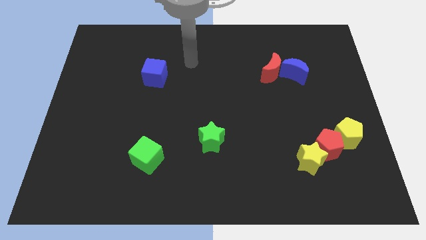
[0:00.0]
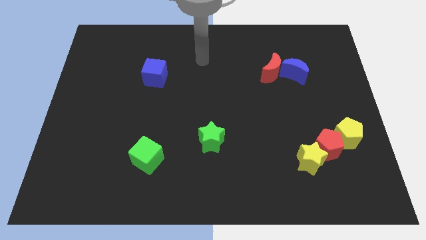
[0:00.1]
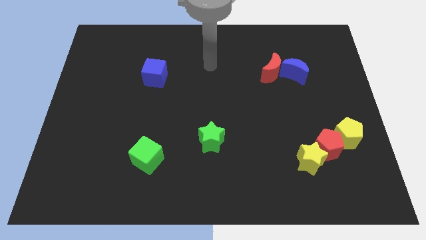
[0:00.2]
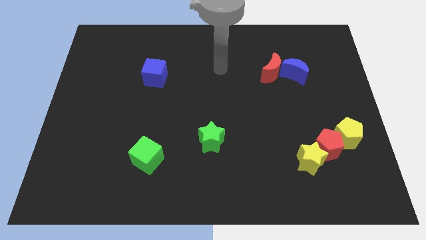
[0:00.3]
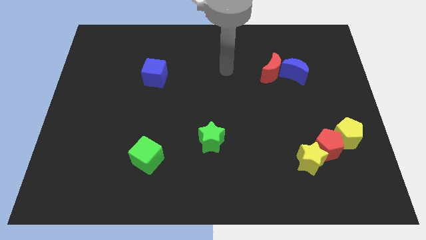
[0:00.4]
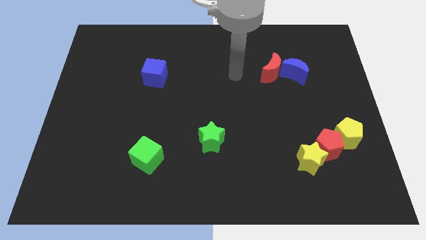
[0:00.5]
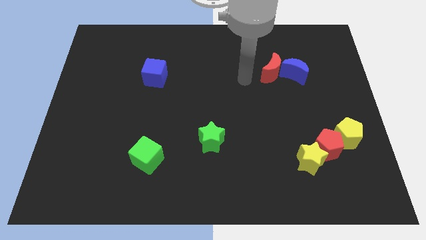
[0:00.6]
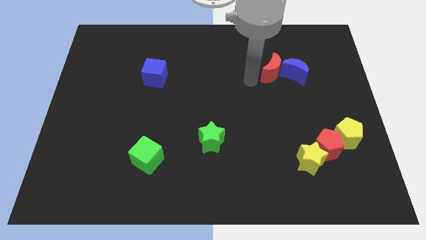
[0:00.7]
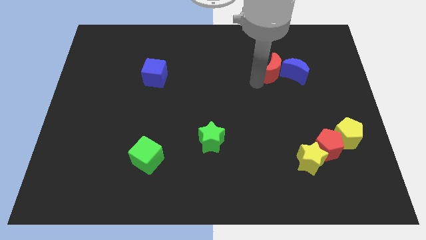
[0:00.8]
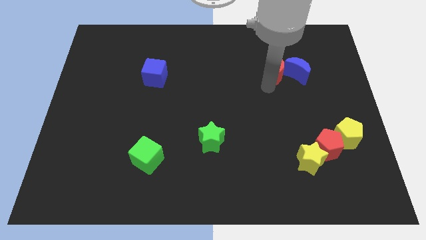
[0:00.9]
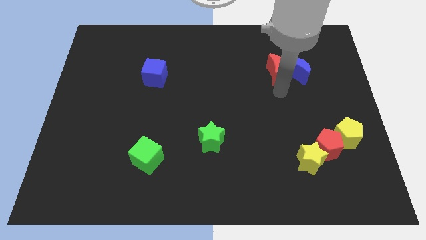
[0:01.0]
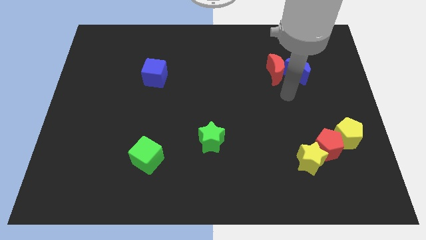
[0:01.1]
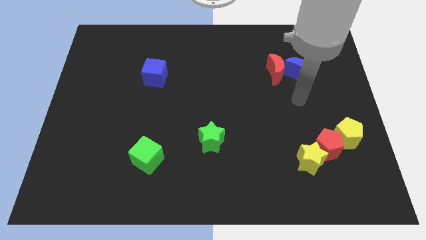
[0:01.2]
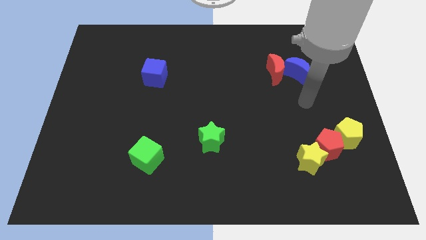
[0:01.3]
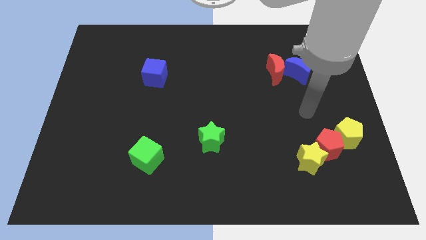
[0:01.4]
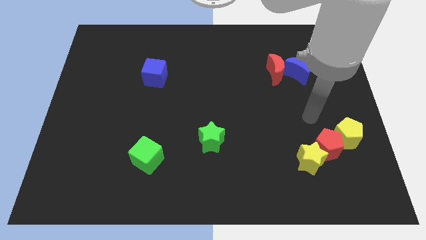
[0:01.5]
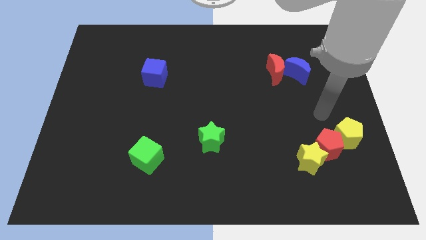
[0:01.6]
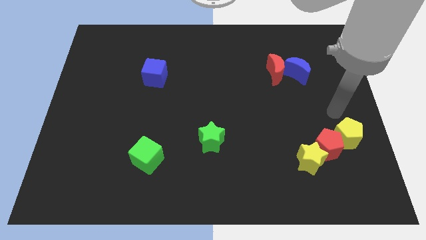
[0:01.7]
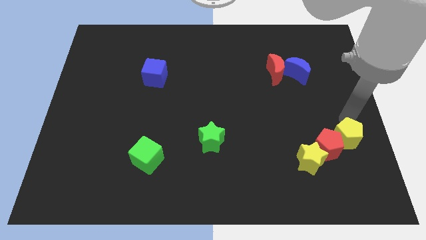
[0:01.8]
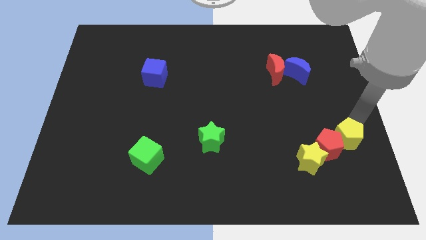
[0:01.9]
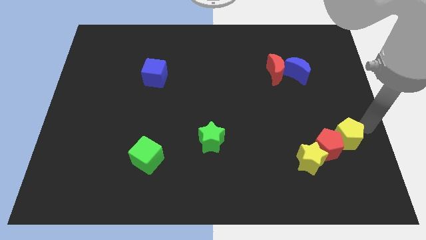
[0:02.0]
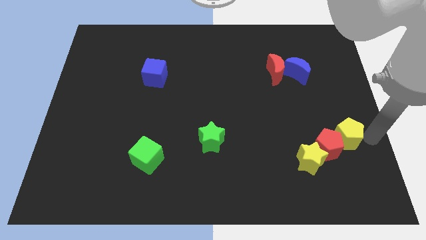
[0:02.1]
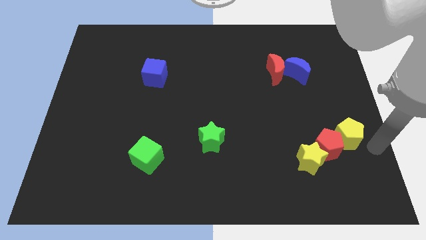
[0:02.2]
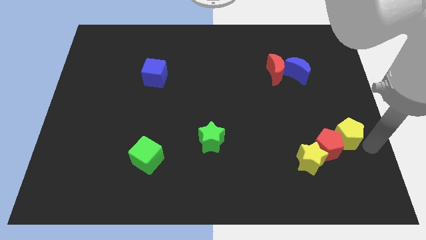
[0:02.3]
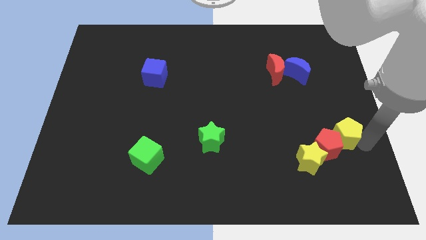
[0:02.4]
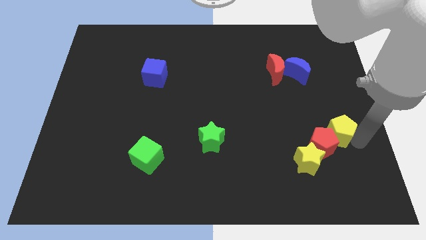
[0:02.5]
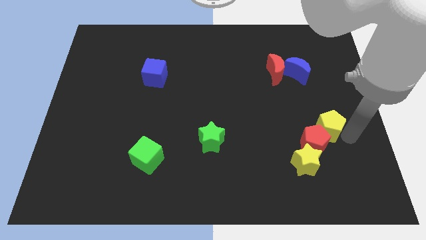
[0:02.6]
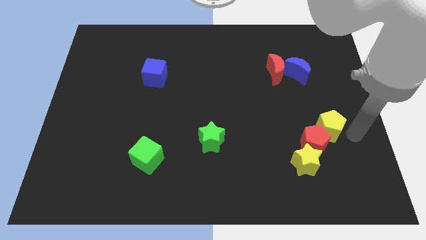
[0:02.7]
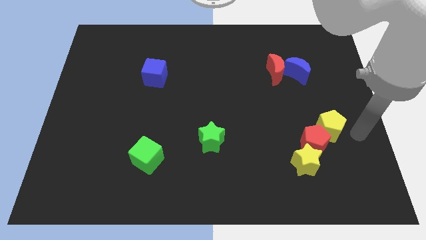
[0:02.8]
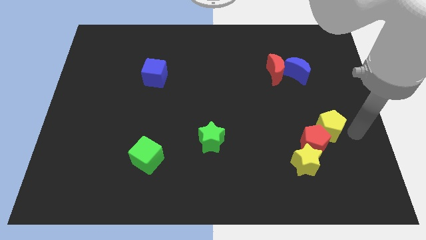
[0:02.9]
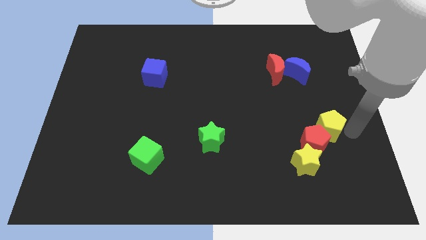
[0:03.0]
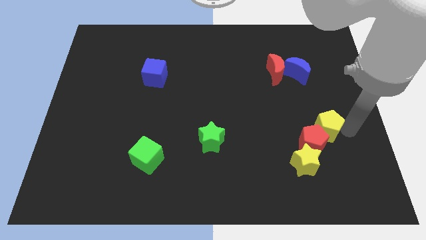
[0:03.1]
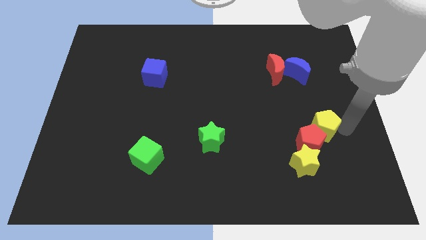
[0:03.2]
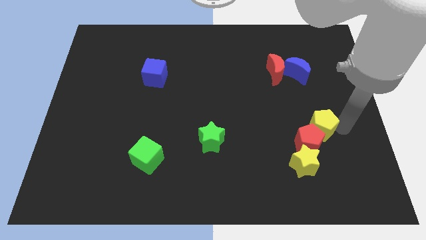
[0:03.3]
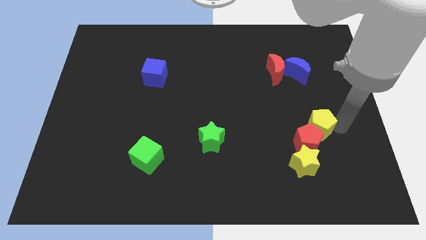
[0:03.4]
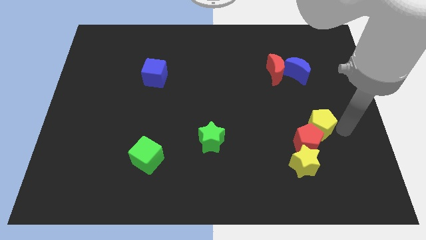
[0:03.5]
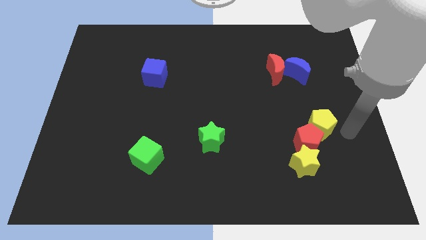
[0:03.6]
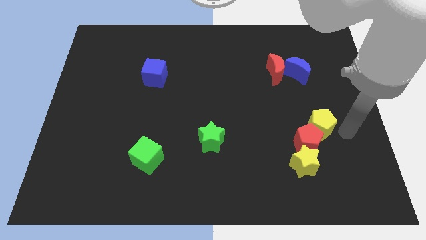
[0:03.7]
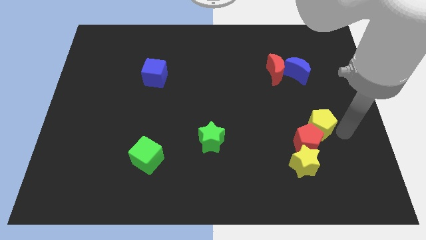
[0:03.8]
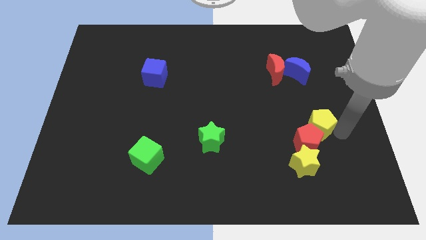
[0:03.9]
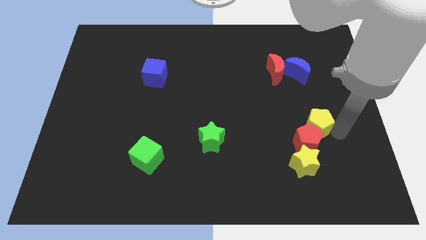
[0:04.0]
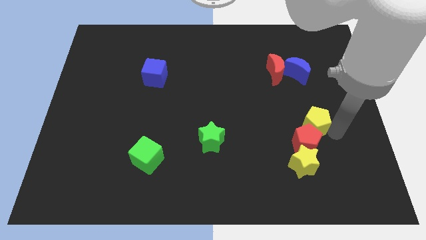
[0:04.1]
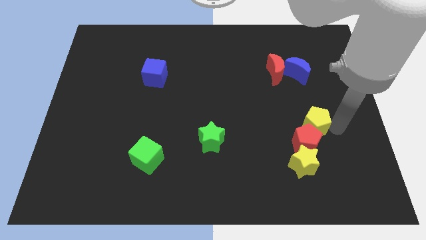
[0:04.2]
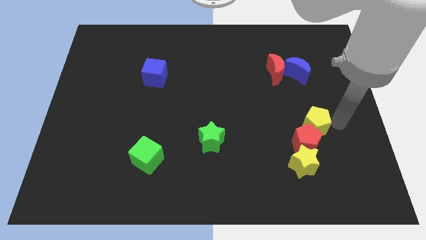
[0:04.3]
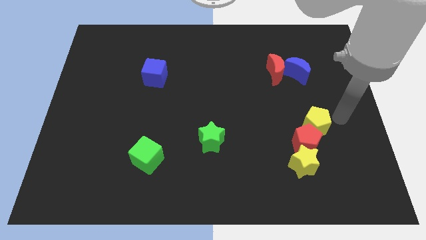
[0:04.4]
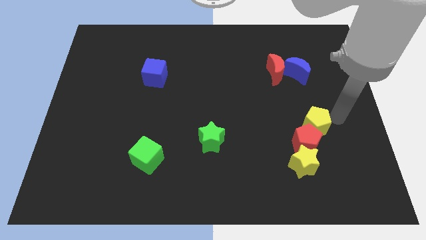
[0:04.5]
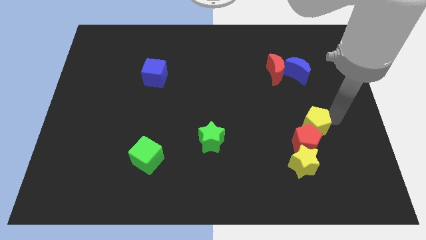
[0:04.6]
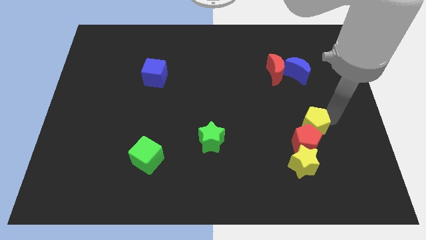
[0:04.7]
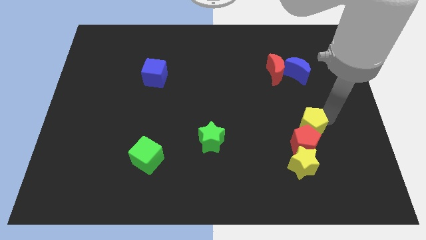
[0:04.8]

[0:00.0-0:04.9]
push the yellow pentagon to the left a little bit

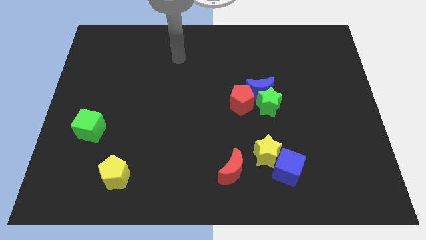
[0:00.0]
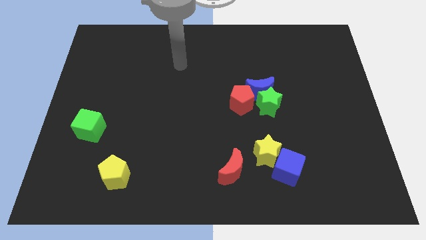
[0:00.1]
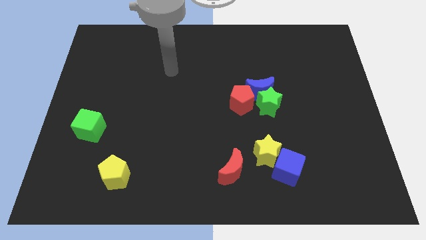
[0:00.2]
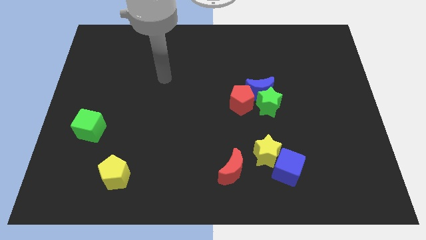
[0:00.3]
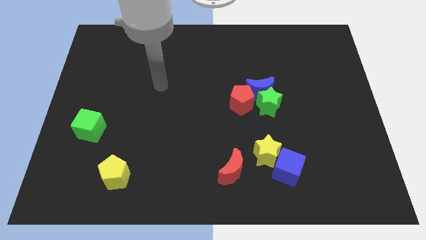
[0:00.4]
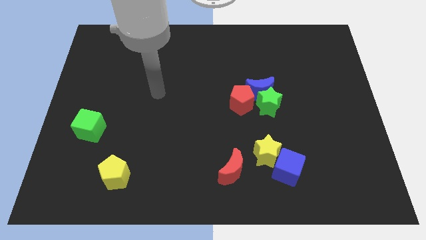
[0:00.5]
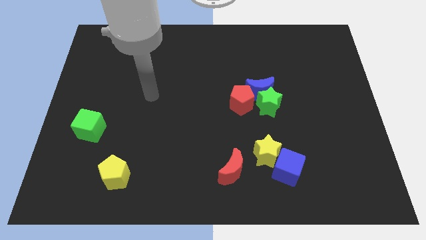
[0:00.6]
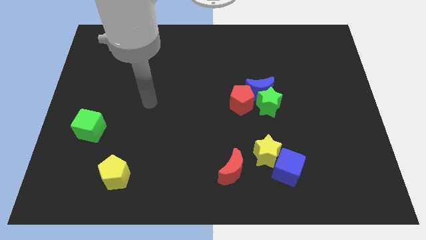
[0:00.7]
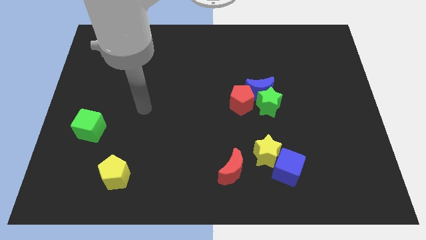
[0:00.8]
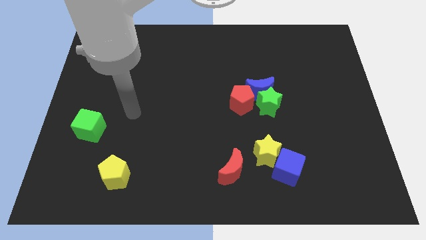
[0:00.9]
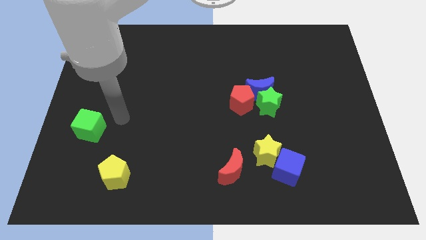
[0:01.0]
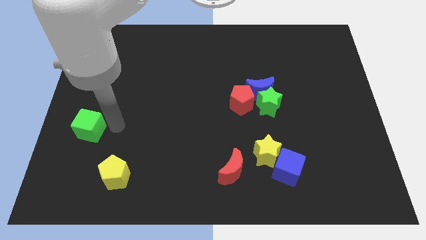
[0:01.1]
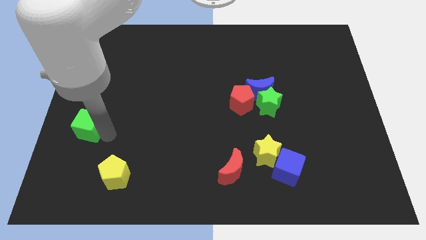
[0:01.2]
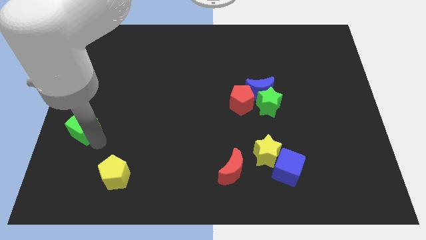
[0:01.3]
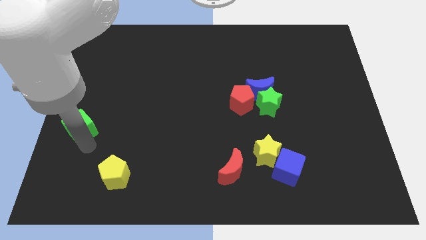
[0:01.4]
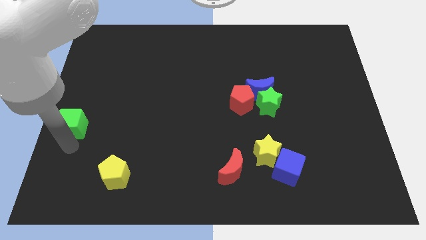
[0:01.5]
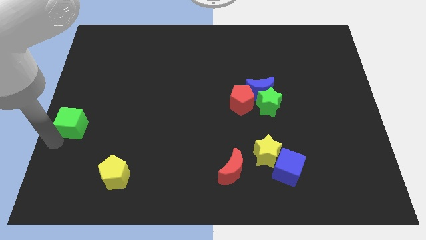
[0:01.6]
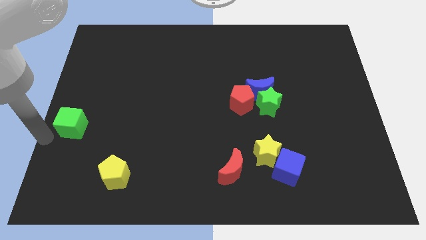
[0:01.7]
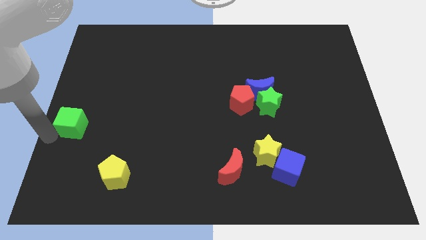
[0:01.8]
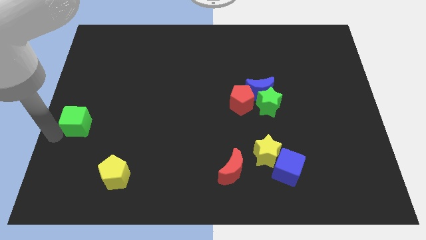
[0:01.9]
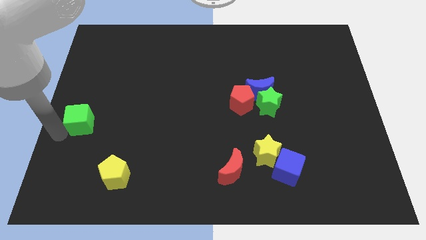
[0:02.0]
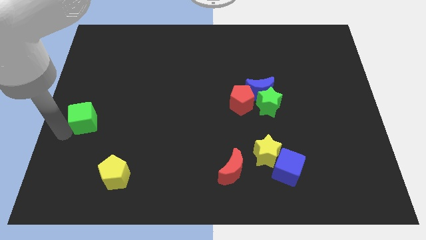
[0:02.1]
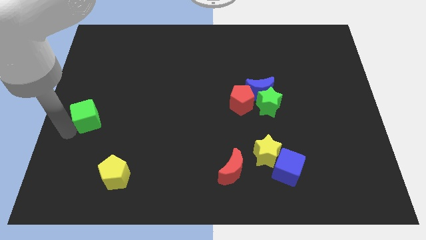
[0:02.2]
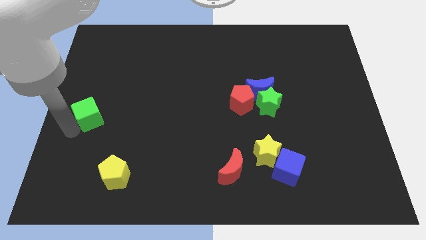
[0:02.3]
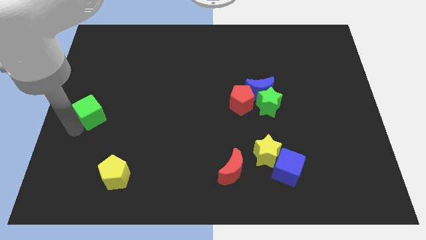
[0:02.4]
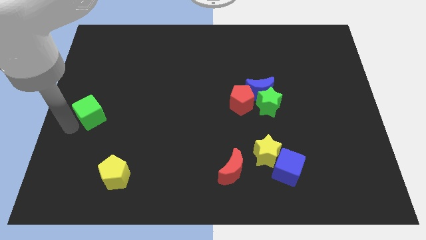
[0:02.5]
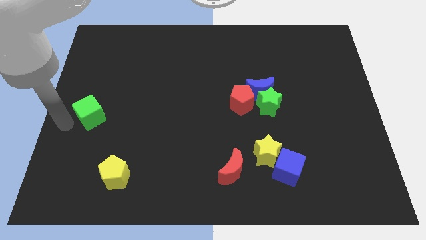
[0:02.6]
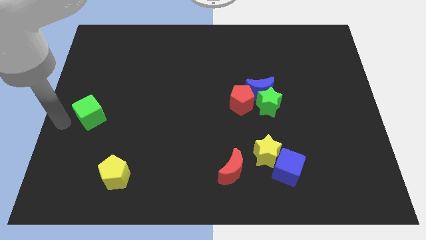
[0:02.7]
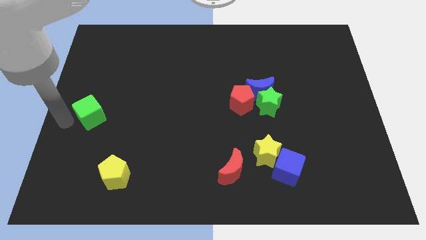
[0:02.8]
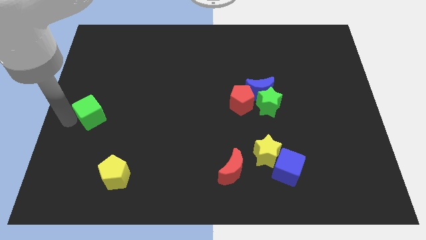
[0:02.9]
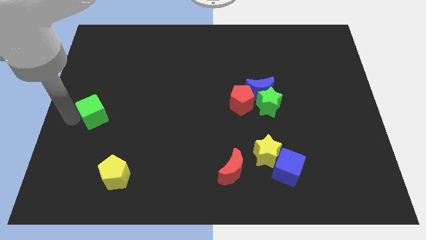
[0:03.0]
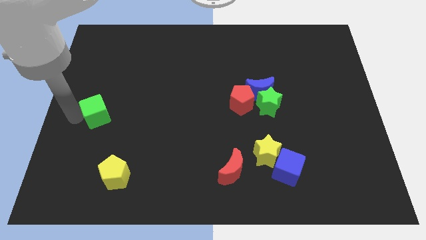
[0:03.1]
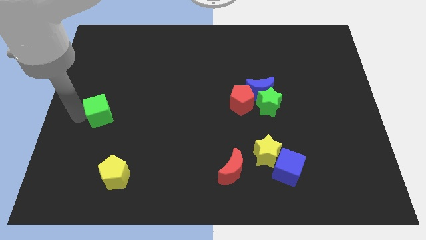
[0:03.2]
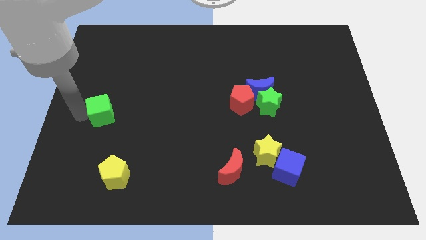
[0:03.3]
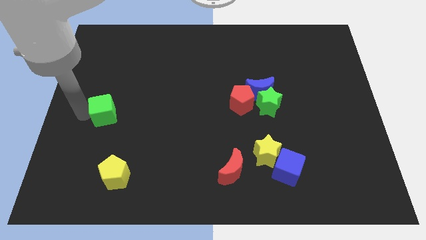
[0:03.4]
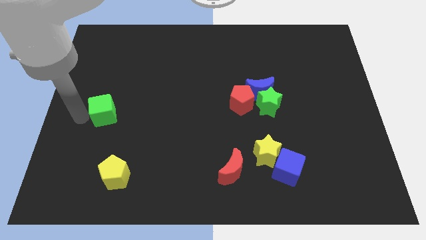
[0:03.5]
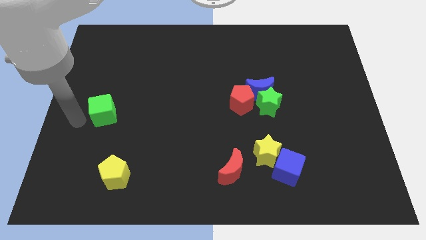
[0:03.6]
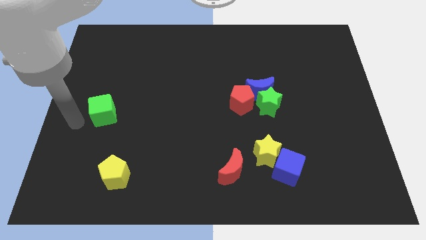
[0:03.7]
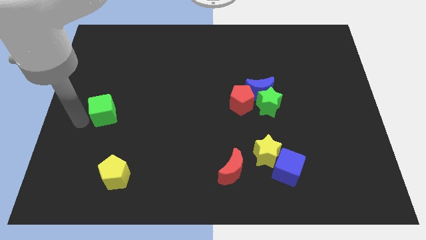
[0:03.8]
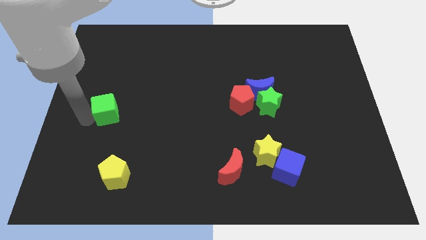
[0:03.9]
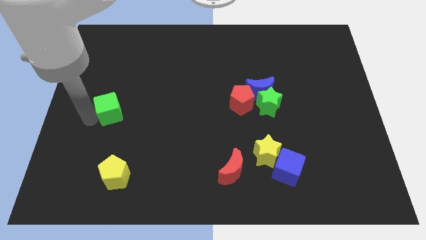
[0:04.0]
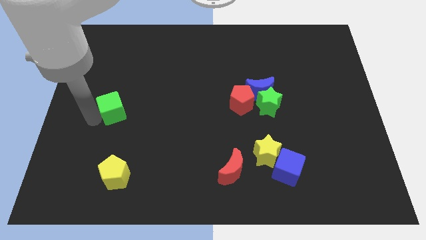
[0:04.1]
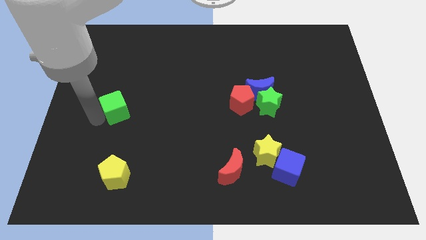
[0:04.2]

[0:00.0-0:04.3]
move the green cube up and right a little bit
